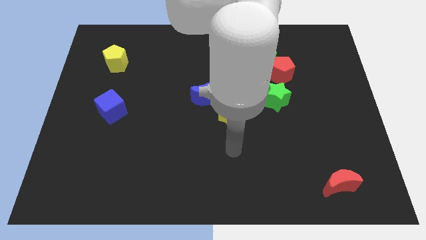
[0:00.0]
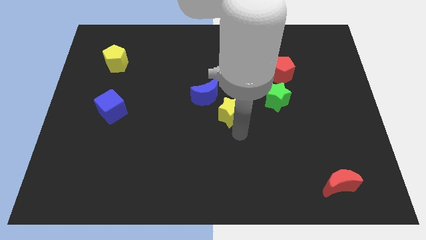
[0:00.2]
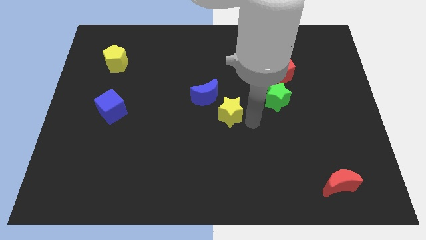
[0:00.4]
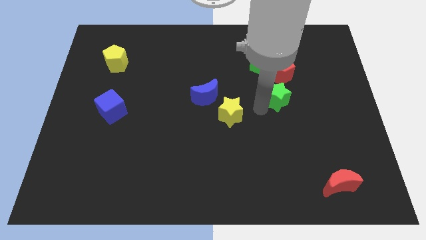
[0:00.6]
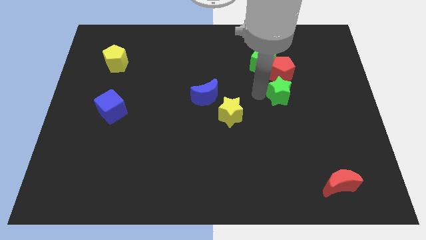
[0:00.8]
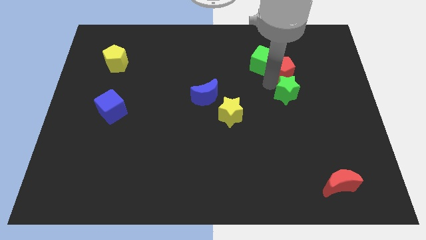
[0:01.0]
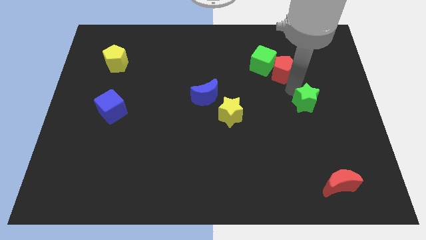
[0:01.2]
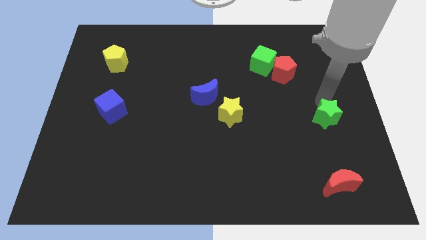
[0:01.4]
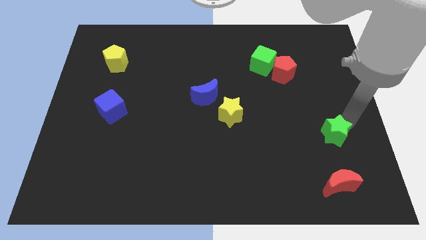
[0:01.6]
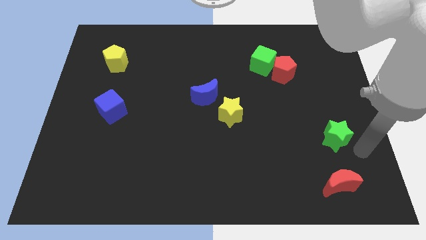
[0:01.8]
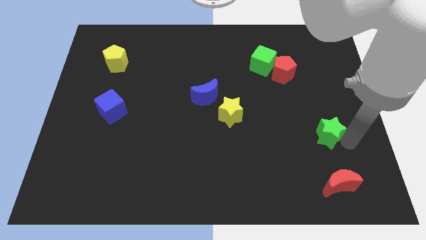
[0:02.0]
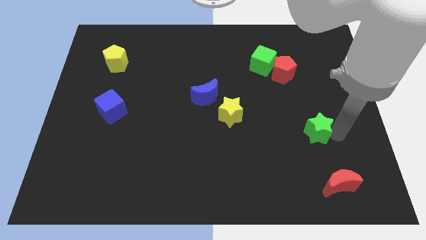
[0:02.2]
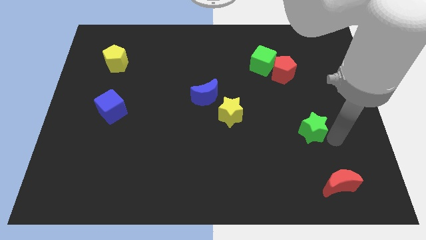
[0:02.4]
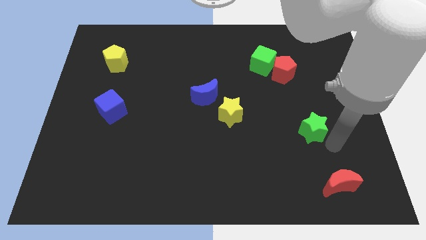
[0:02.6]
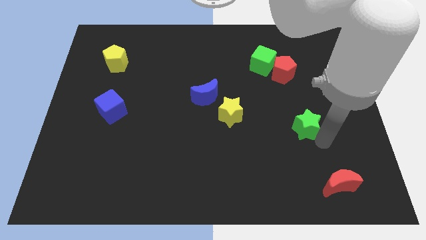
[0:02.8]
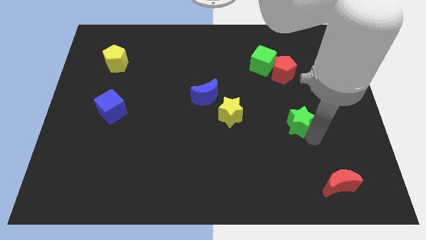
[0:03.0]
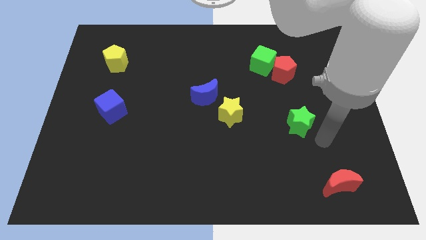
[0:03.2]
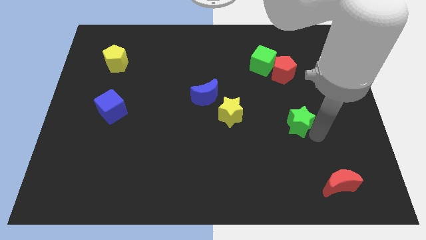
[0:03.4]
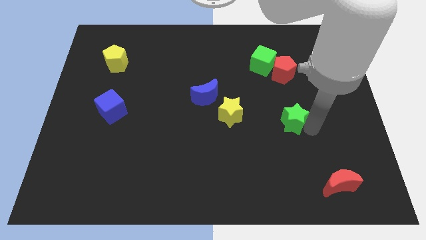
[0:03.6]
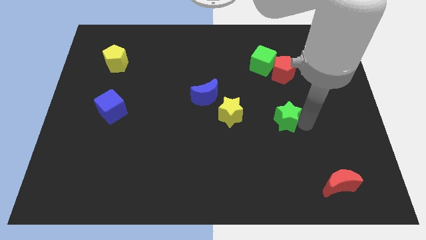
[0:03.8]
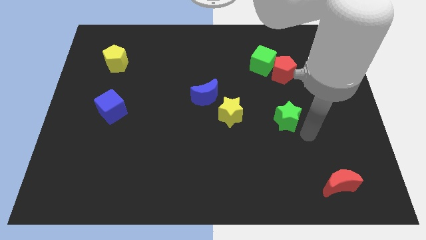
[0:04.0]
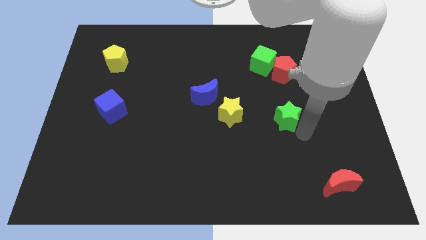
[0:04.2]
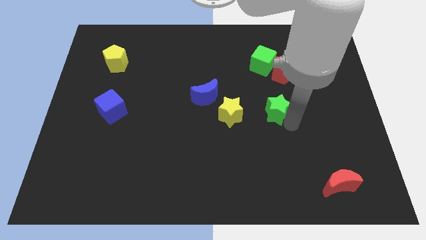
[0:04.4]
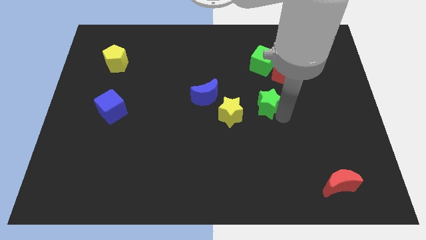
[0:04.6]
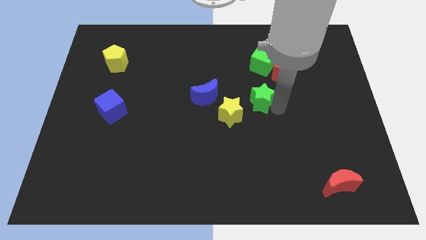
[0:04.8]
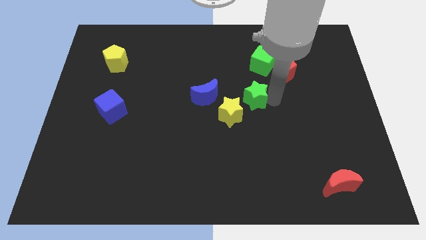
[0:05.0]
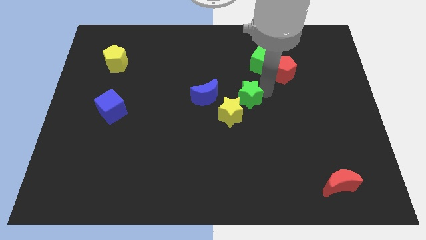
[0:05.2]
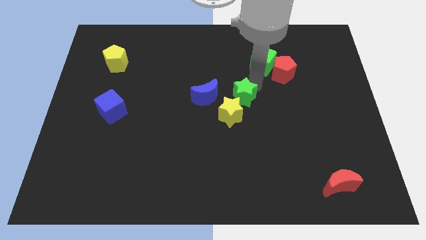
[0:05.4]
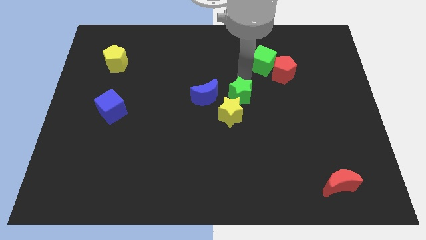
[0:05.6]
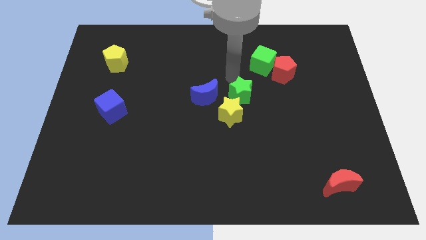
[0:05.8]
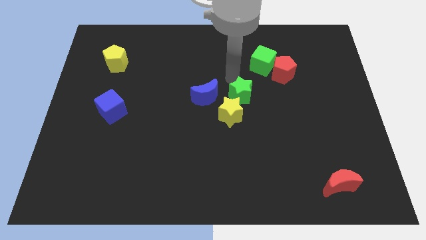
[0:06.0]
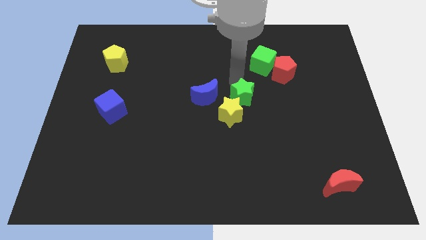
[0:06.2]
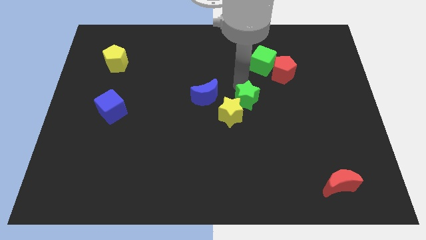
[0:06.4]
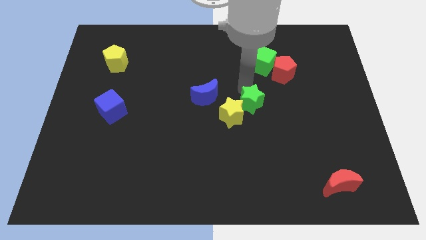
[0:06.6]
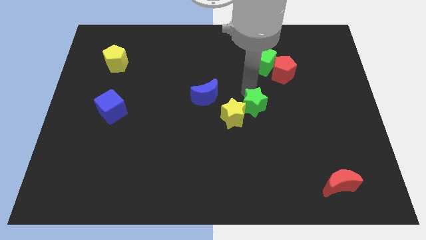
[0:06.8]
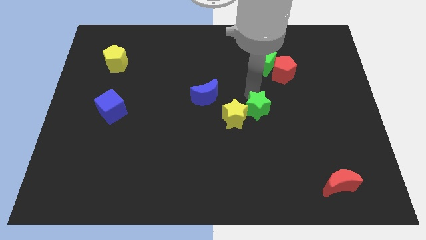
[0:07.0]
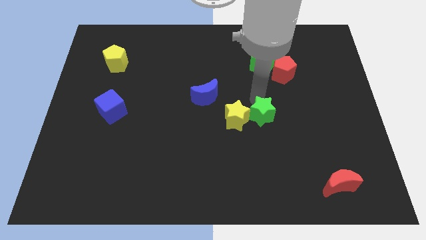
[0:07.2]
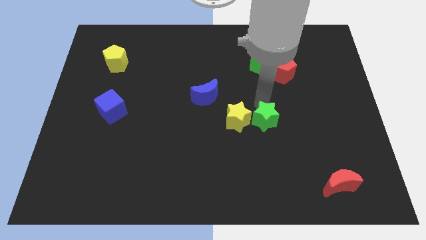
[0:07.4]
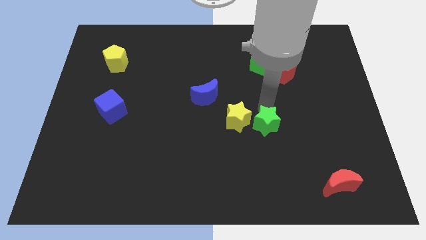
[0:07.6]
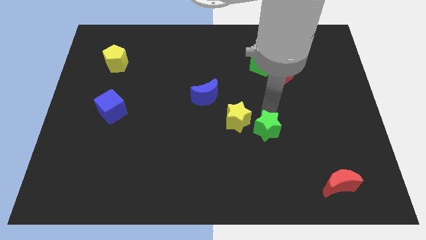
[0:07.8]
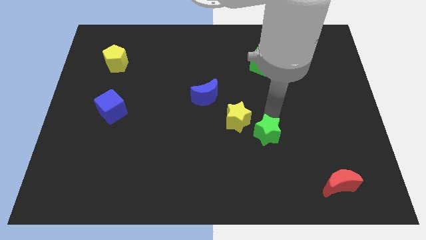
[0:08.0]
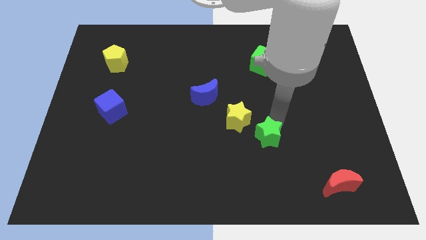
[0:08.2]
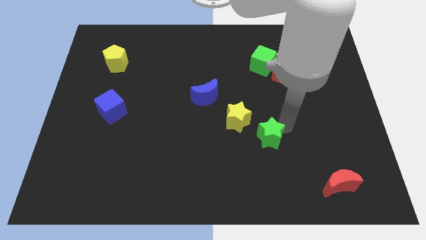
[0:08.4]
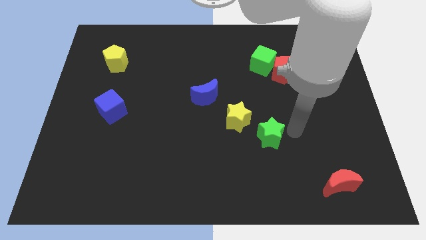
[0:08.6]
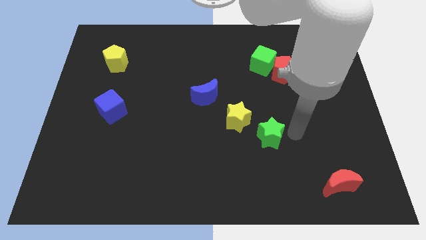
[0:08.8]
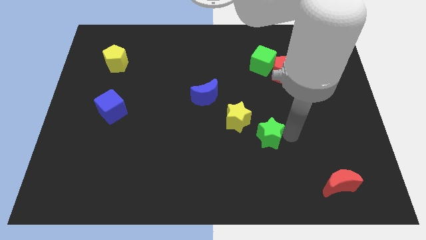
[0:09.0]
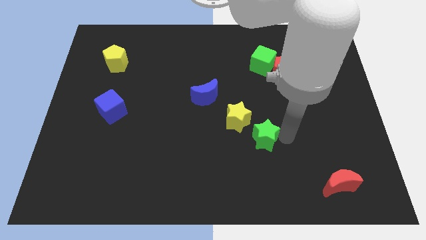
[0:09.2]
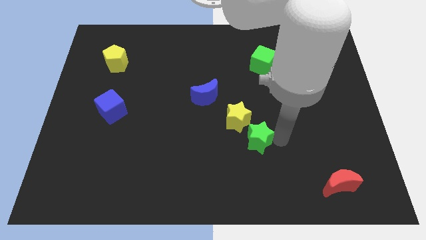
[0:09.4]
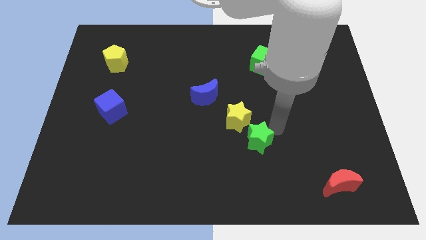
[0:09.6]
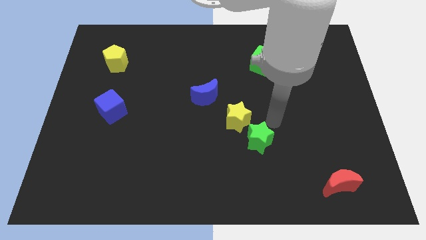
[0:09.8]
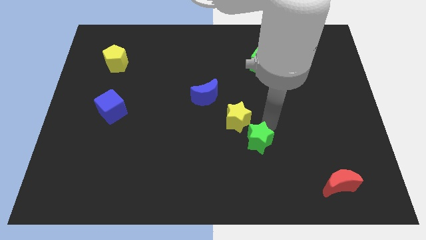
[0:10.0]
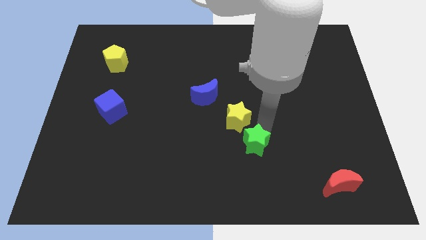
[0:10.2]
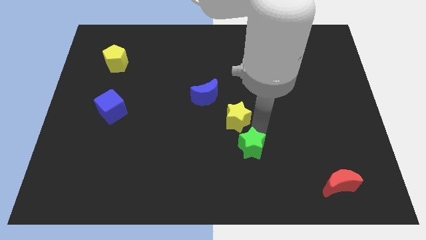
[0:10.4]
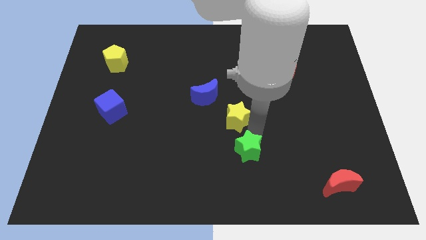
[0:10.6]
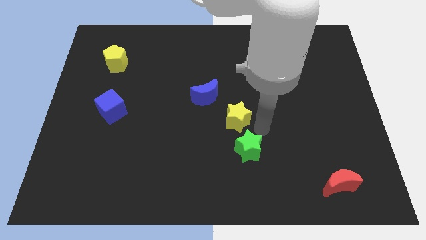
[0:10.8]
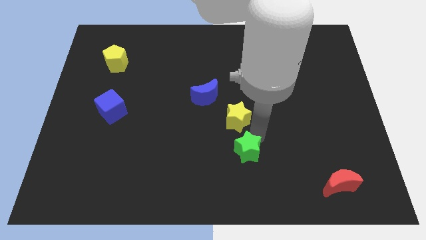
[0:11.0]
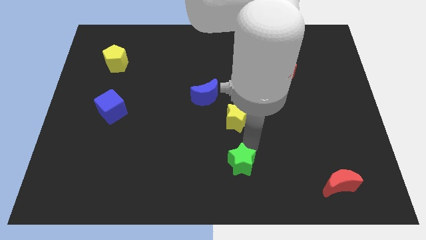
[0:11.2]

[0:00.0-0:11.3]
put the green star to the bottom side

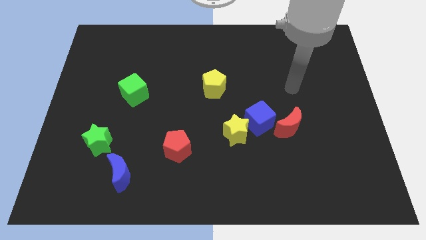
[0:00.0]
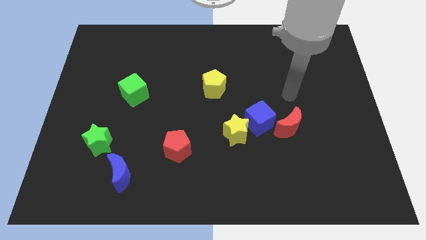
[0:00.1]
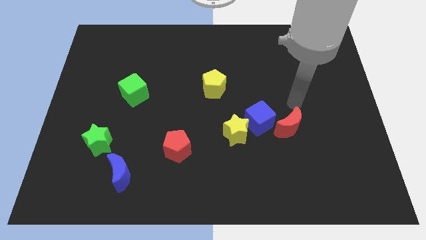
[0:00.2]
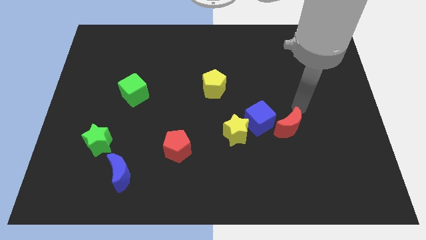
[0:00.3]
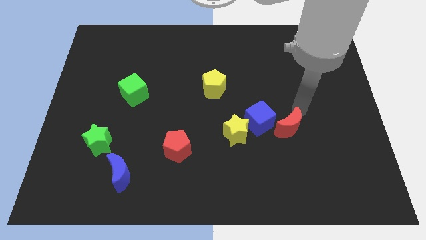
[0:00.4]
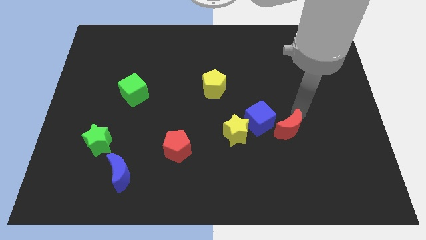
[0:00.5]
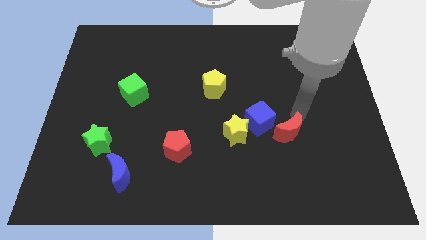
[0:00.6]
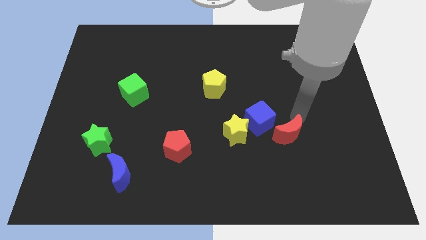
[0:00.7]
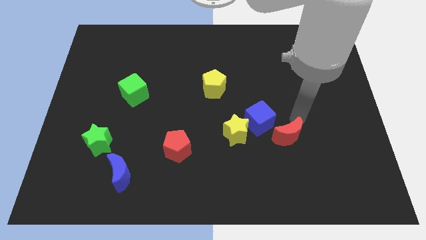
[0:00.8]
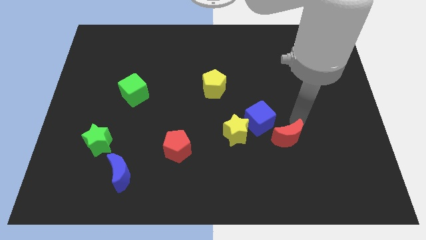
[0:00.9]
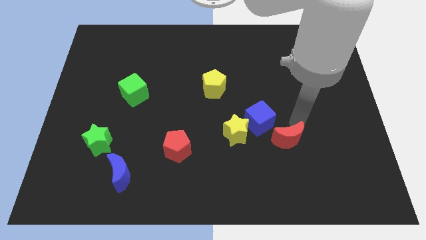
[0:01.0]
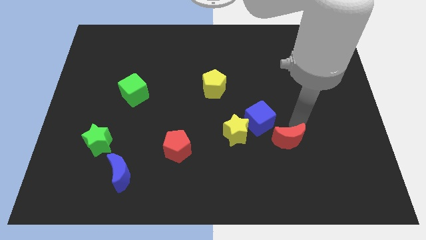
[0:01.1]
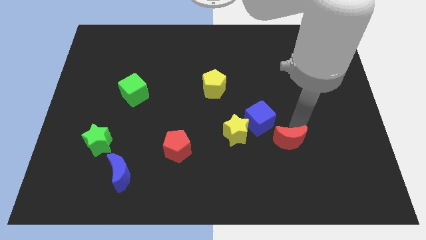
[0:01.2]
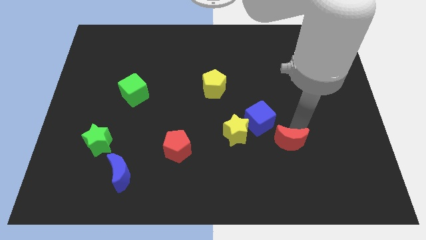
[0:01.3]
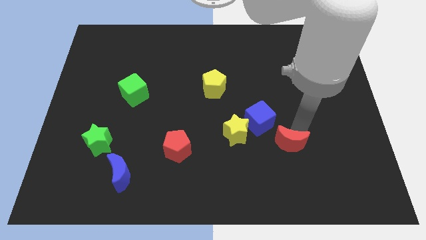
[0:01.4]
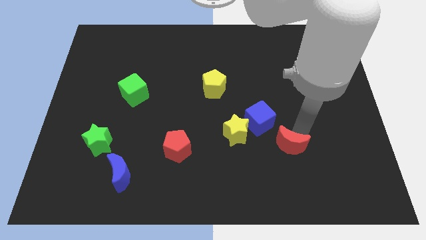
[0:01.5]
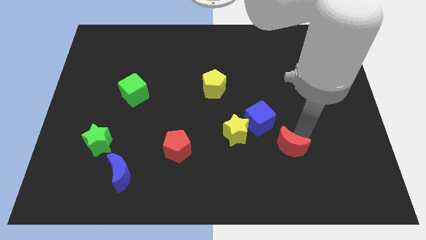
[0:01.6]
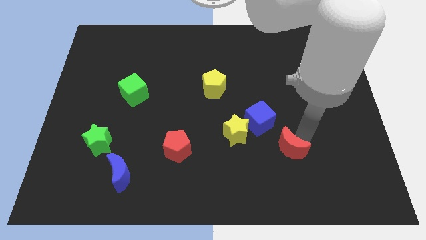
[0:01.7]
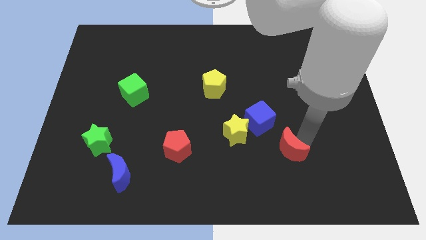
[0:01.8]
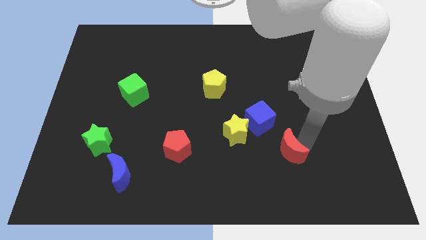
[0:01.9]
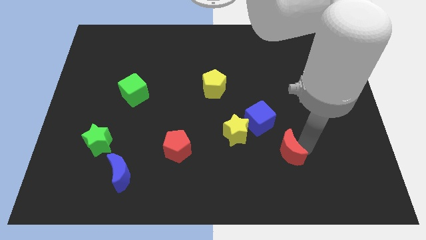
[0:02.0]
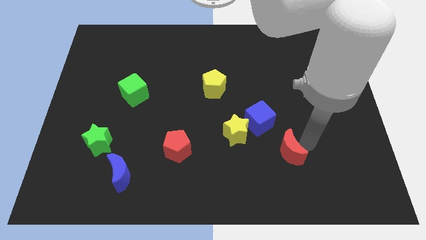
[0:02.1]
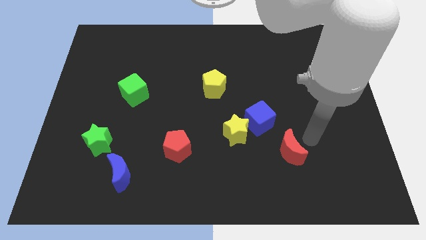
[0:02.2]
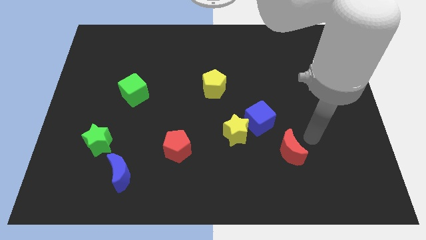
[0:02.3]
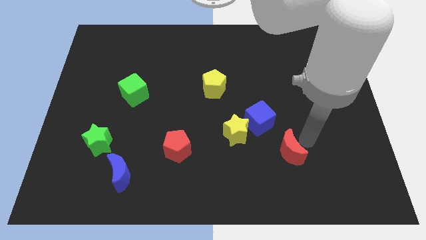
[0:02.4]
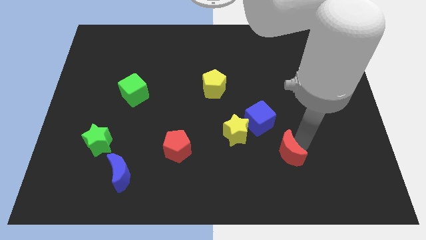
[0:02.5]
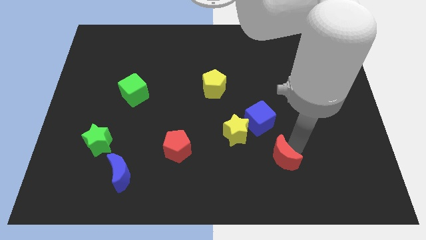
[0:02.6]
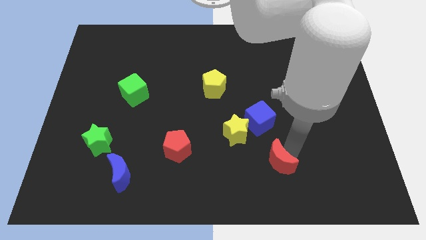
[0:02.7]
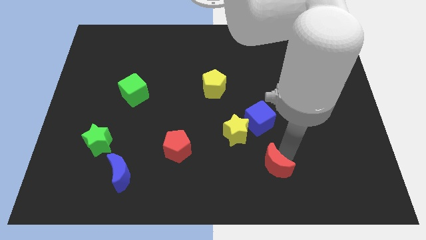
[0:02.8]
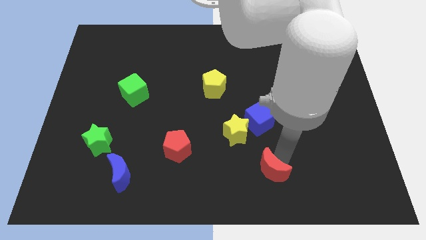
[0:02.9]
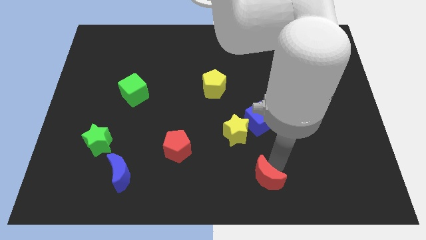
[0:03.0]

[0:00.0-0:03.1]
slide the red moon to the bottom side
